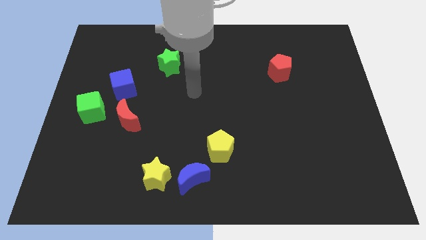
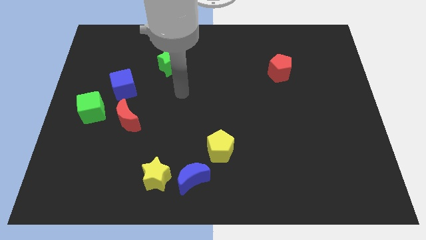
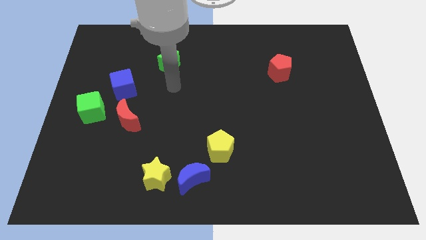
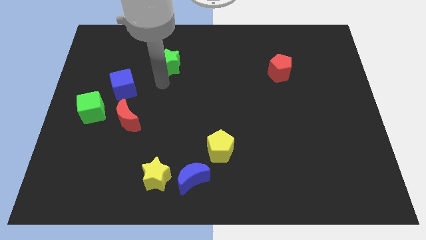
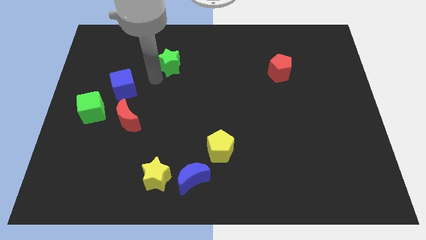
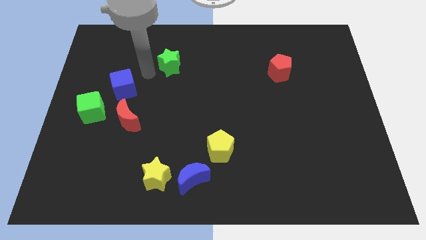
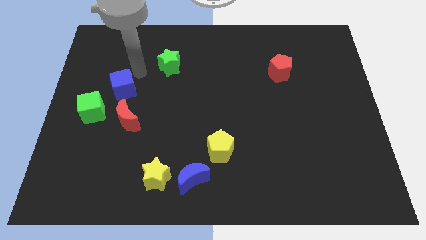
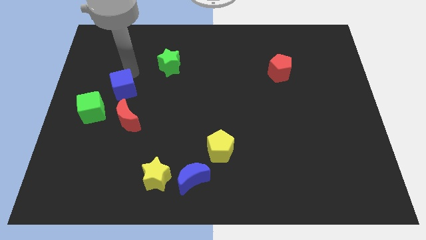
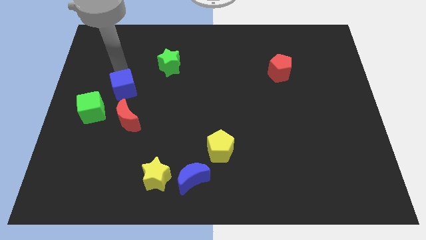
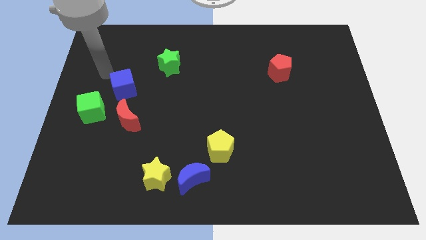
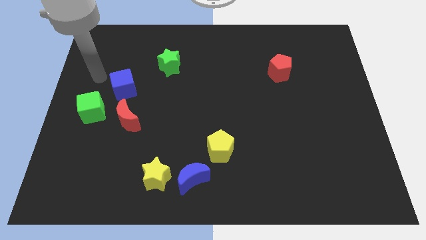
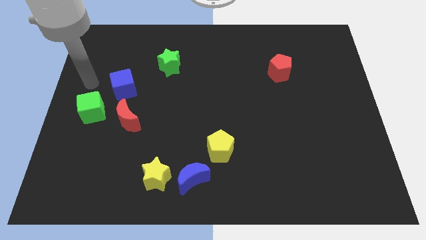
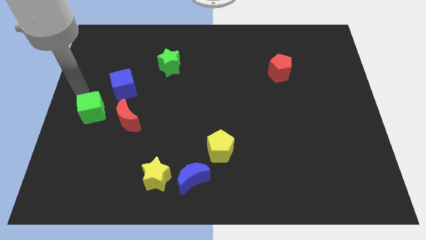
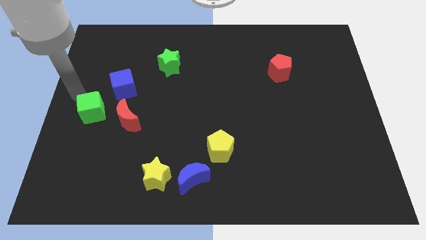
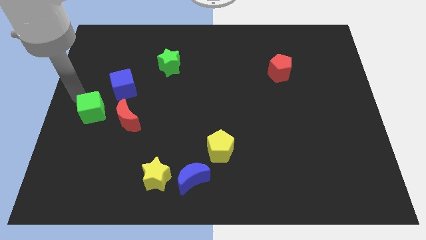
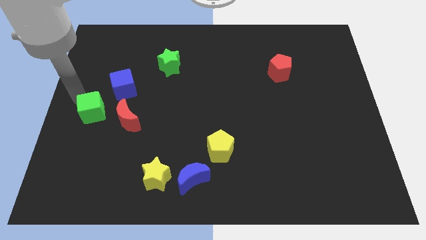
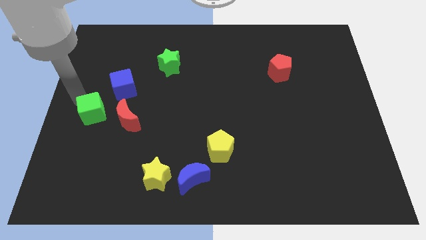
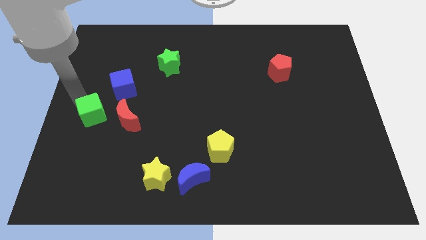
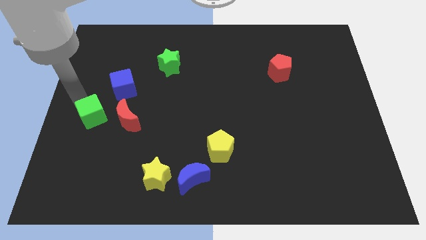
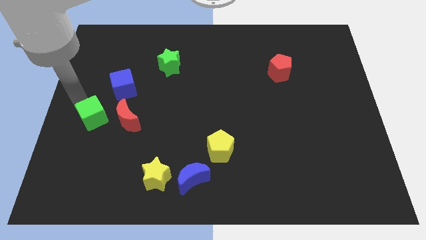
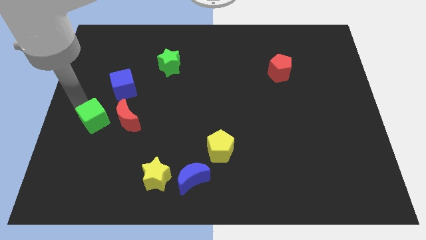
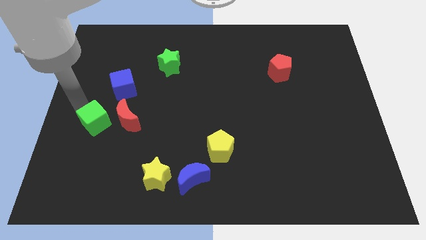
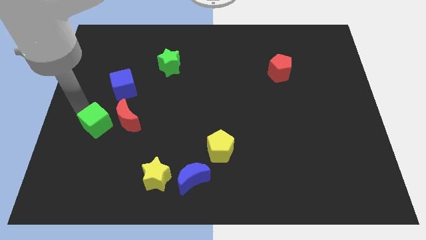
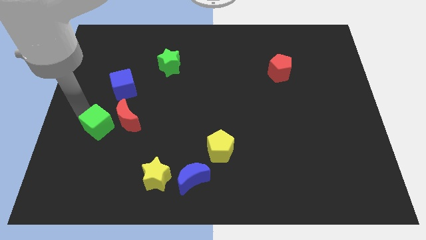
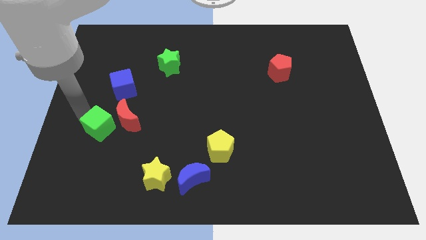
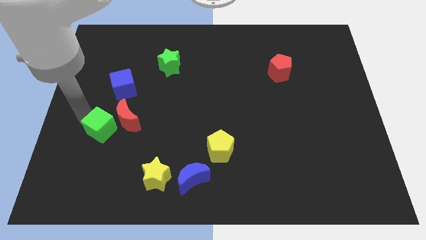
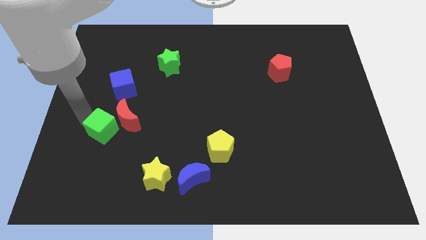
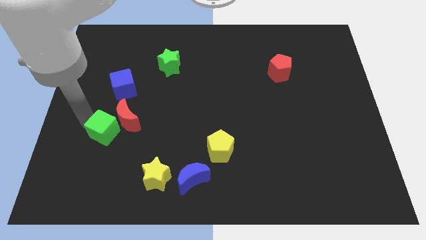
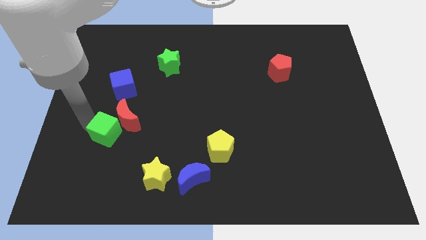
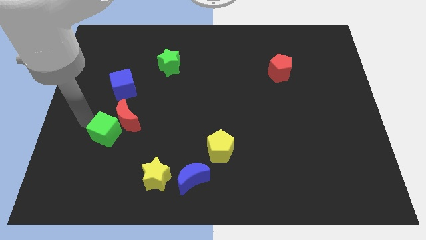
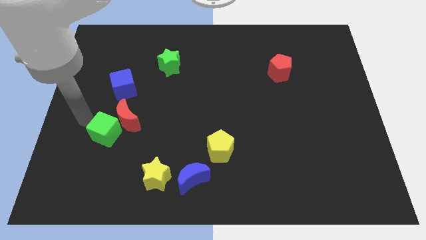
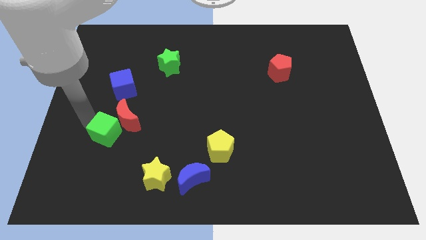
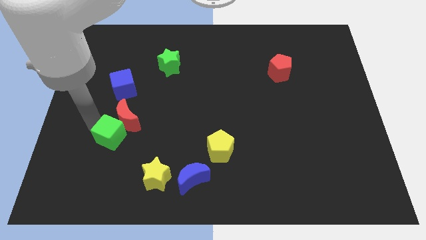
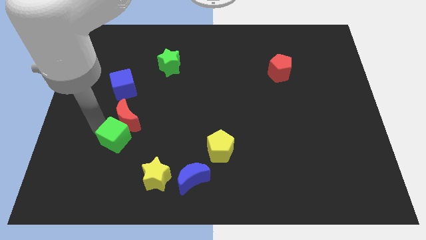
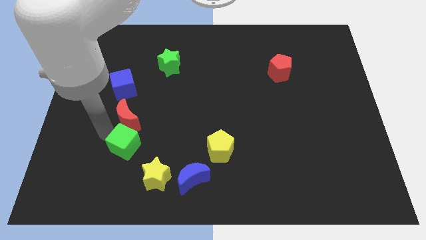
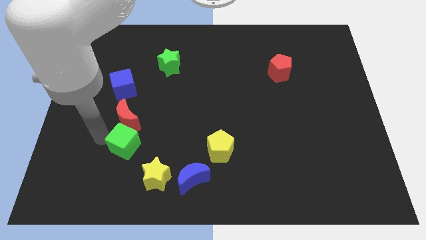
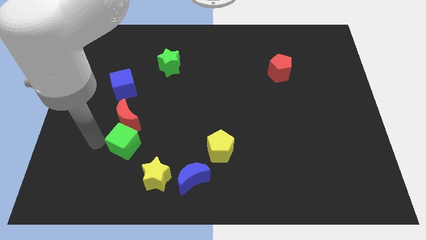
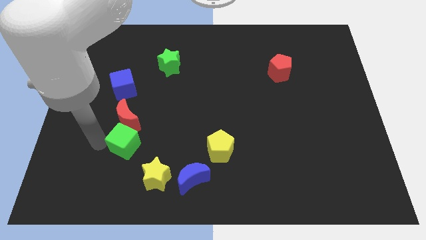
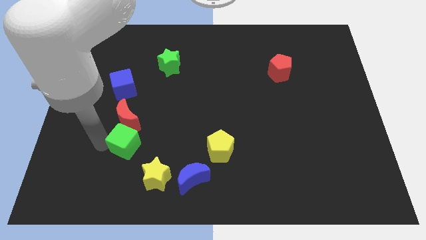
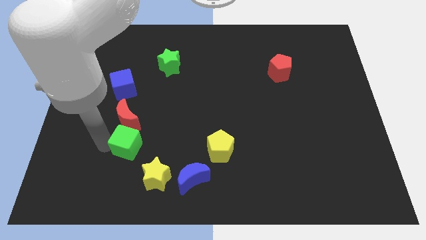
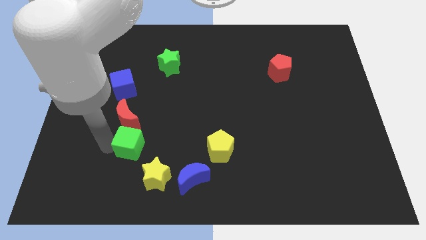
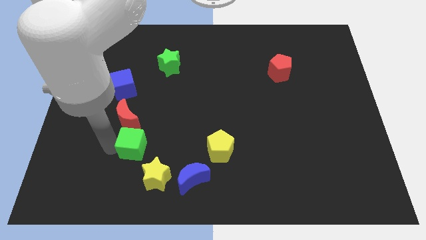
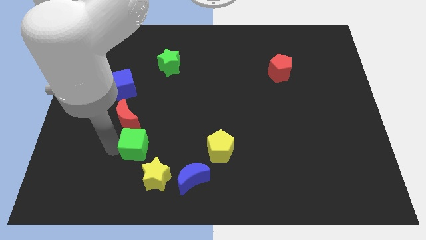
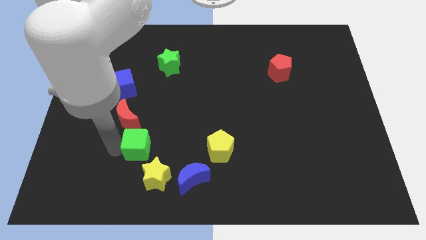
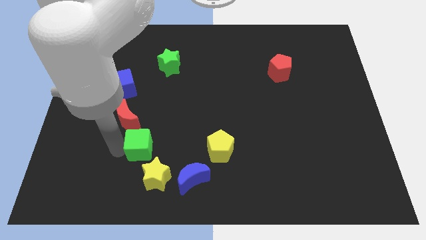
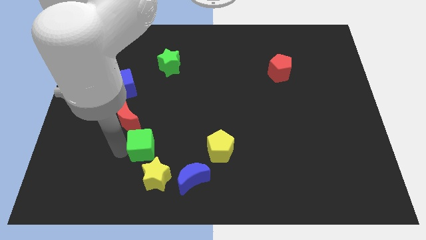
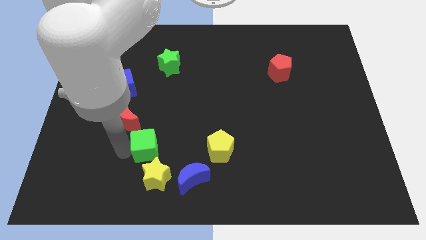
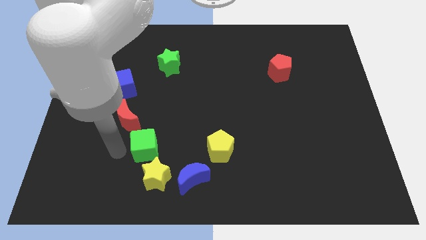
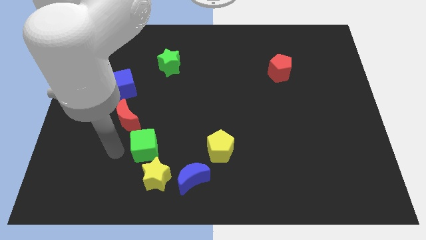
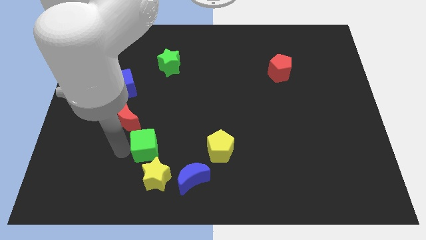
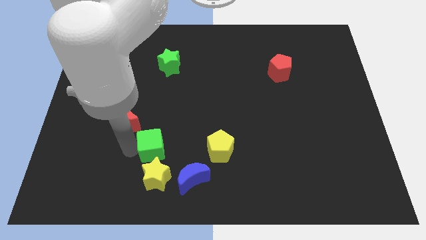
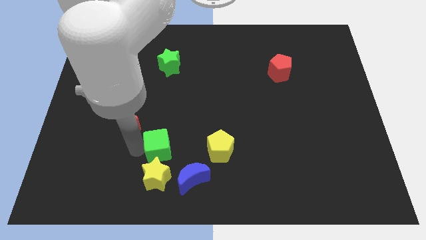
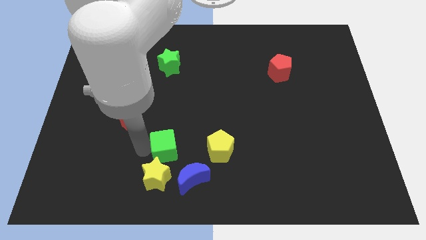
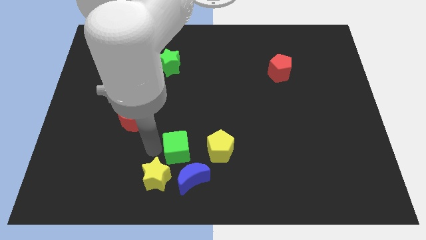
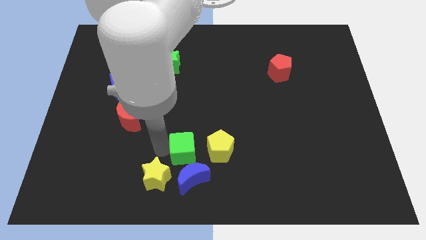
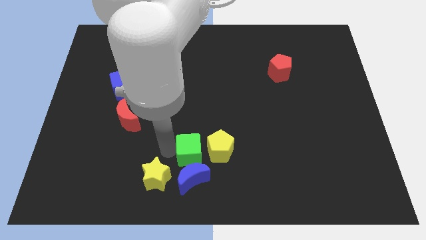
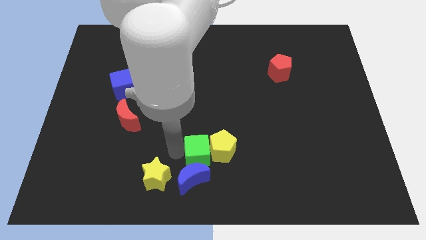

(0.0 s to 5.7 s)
put the green cube towards the yellow pentagon
